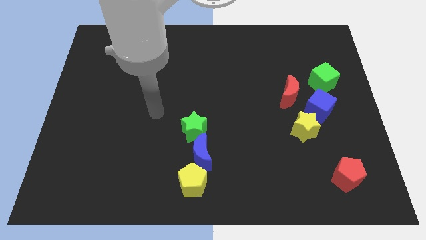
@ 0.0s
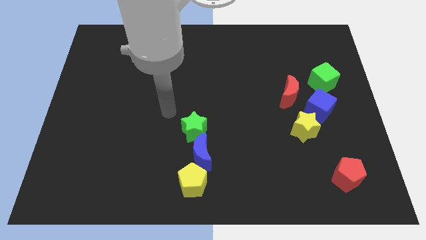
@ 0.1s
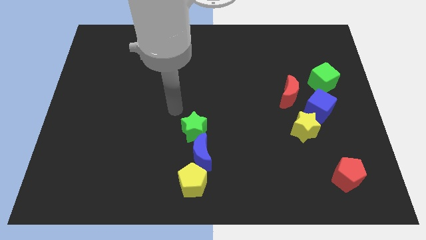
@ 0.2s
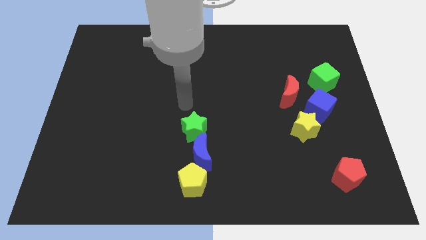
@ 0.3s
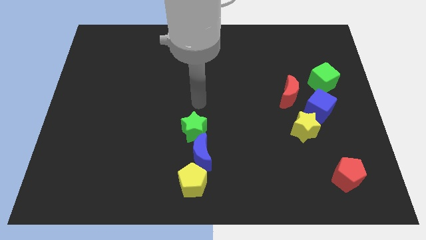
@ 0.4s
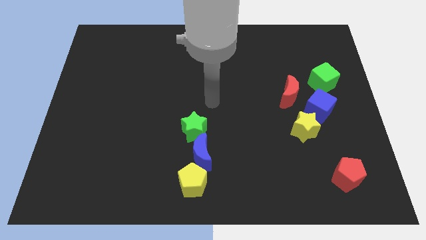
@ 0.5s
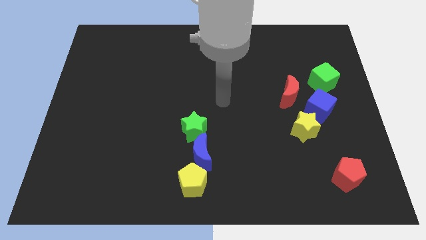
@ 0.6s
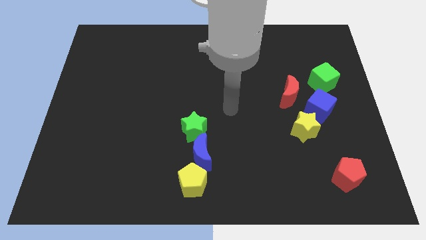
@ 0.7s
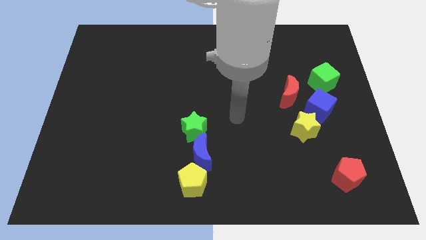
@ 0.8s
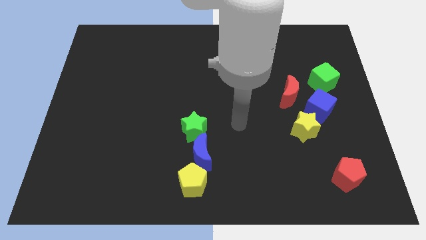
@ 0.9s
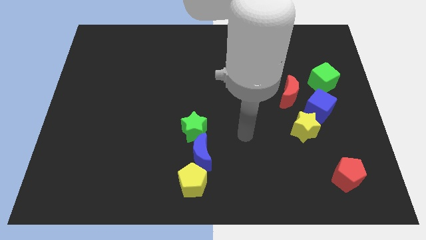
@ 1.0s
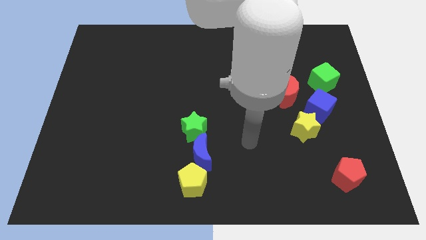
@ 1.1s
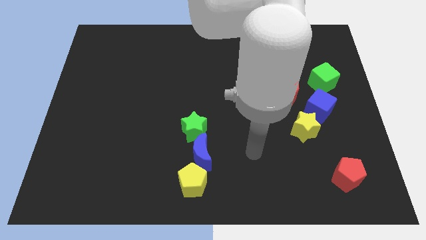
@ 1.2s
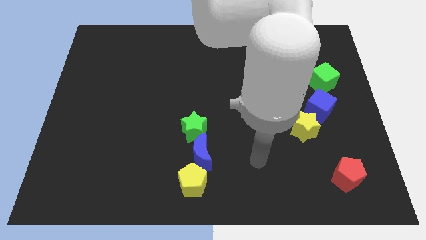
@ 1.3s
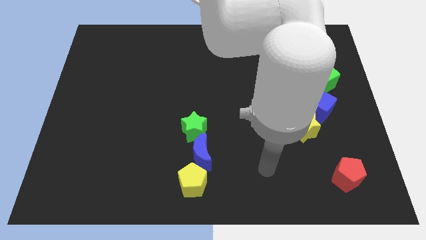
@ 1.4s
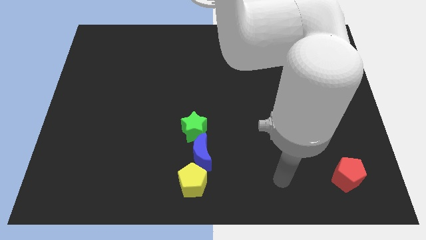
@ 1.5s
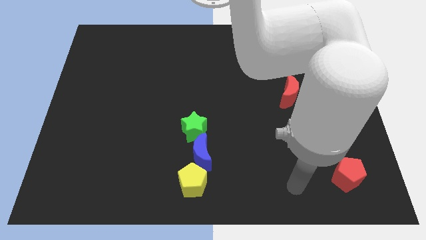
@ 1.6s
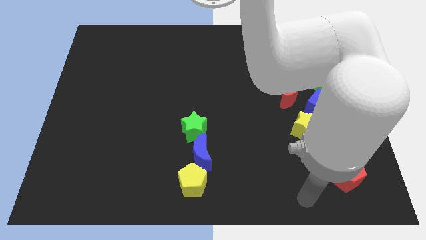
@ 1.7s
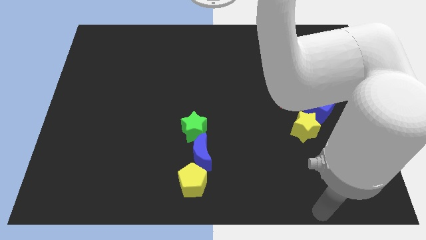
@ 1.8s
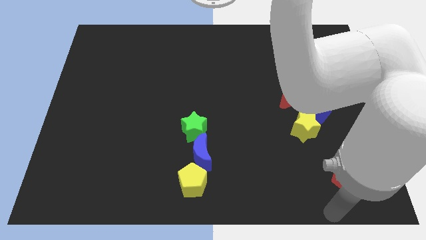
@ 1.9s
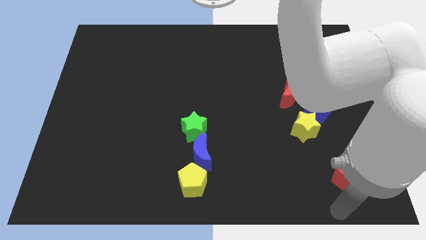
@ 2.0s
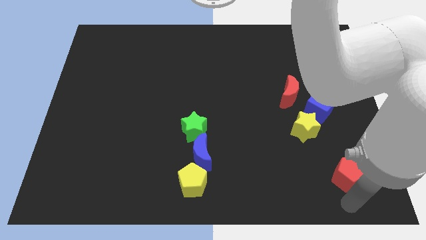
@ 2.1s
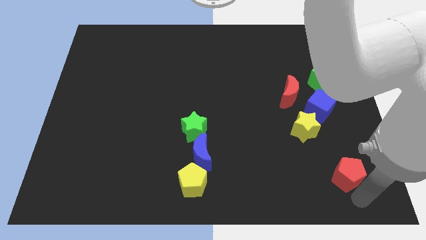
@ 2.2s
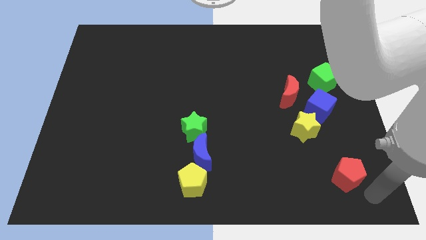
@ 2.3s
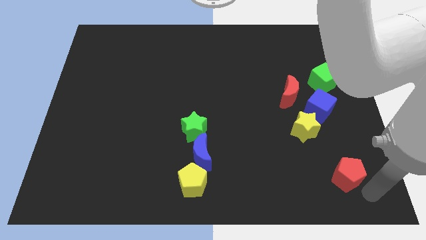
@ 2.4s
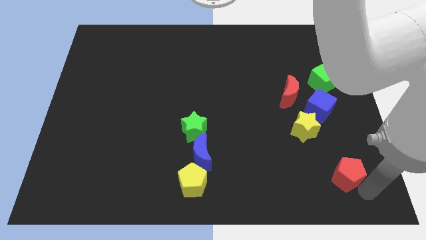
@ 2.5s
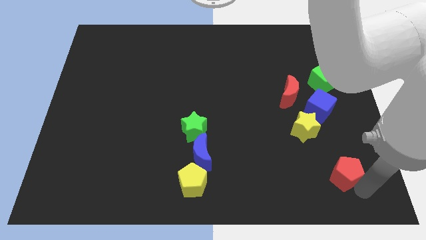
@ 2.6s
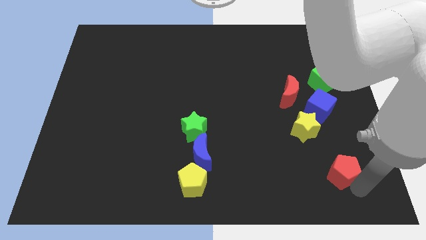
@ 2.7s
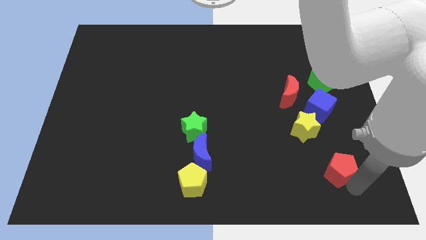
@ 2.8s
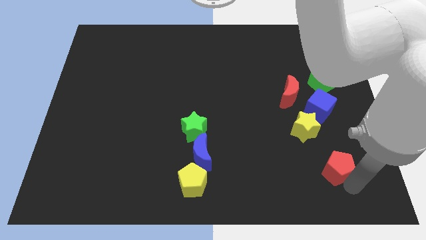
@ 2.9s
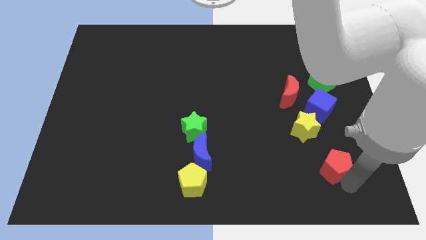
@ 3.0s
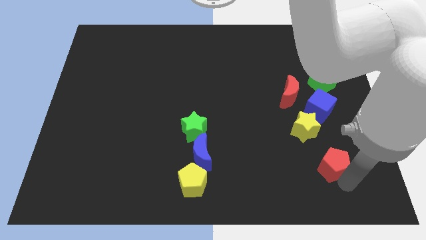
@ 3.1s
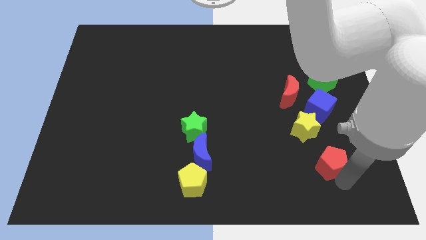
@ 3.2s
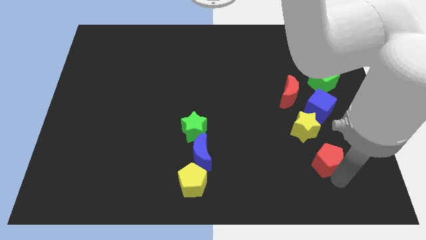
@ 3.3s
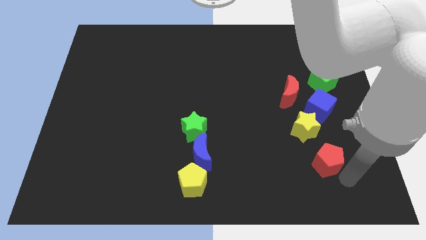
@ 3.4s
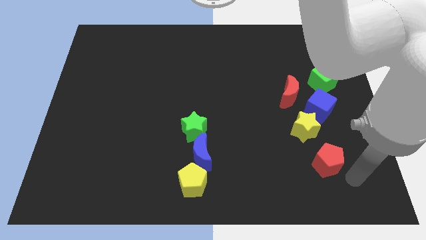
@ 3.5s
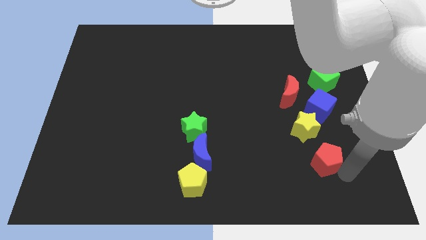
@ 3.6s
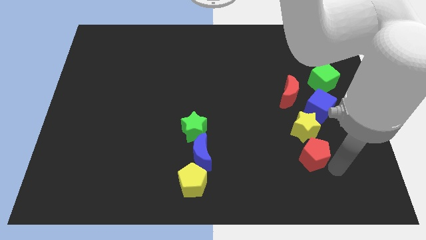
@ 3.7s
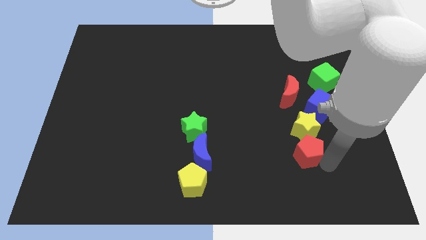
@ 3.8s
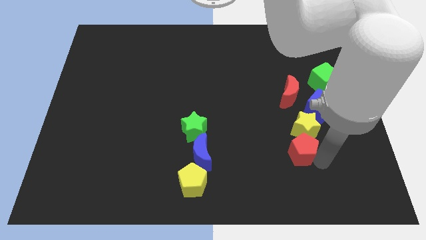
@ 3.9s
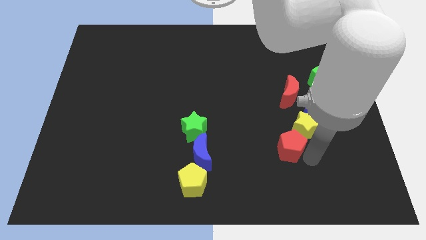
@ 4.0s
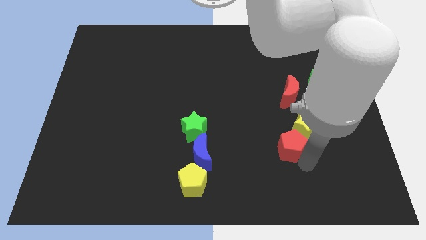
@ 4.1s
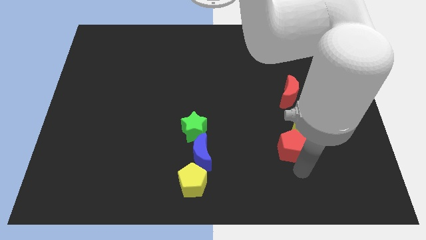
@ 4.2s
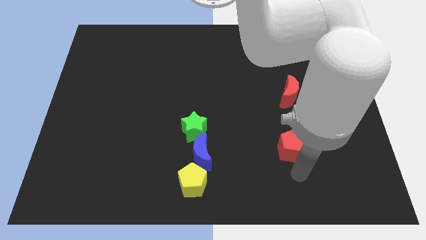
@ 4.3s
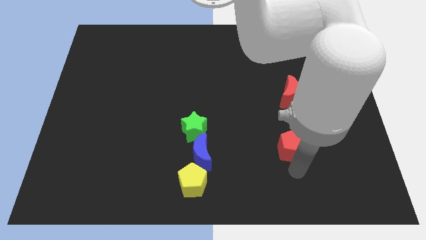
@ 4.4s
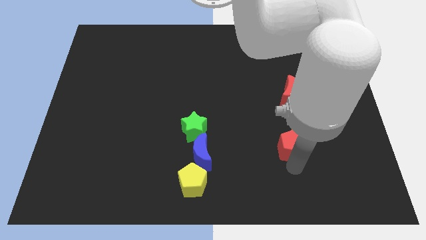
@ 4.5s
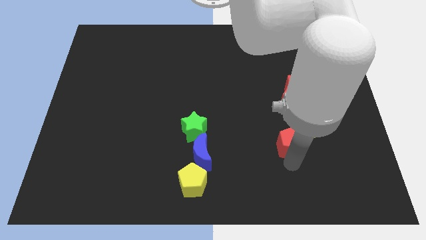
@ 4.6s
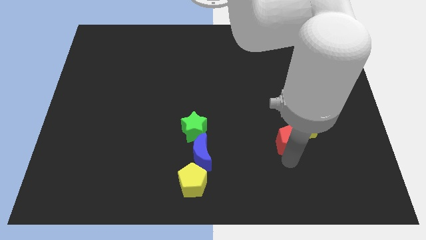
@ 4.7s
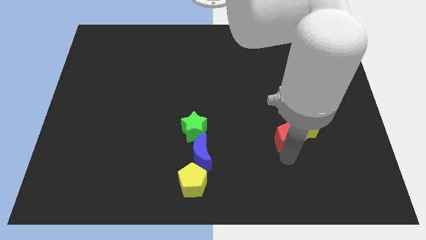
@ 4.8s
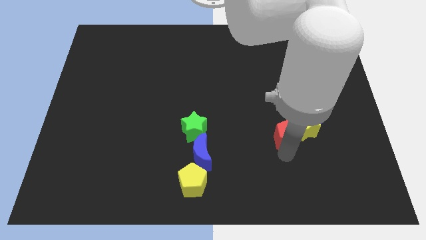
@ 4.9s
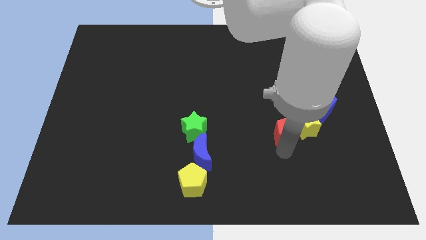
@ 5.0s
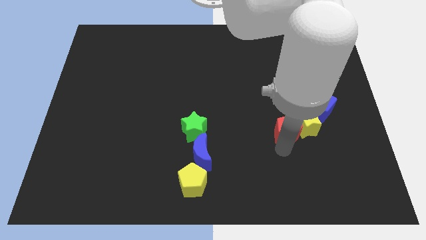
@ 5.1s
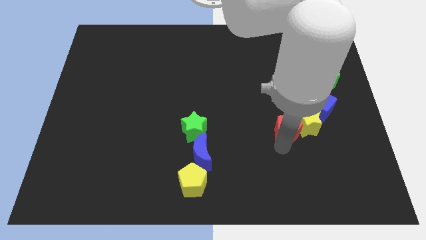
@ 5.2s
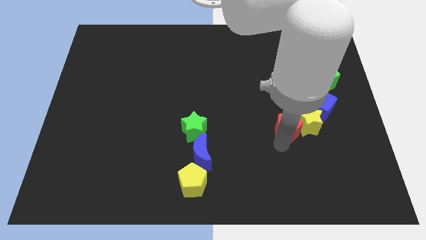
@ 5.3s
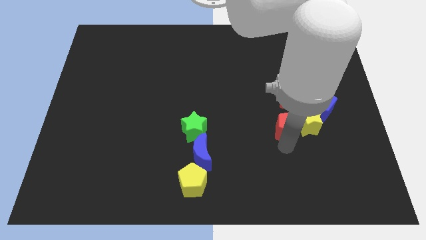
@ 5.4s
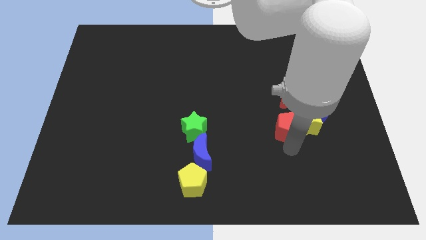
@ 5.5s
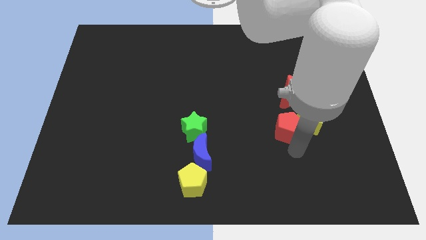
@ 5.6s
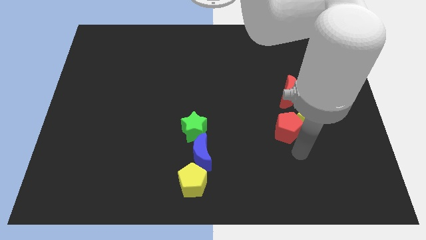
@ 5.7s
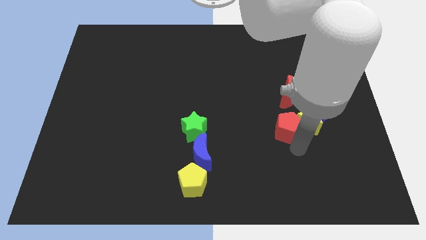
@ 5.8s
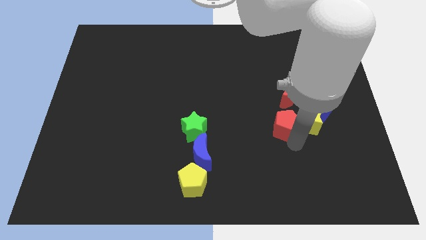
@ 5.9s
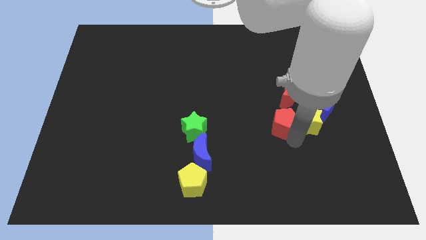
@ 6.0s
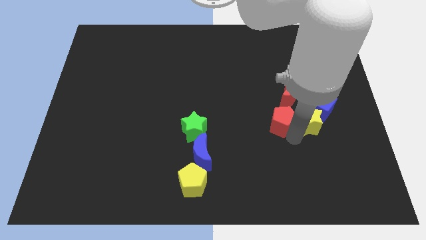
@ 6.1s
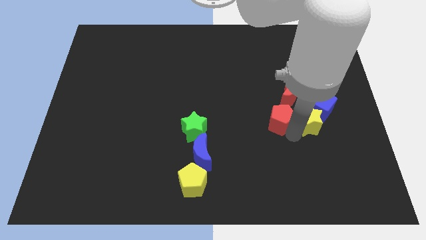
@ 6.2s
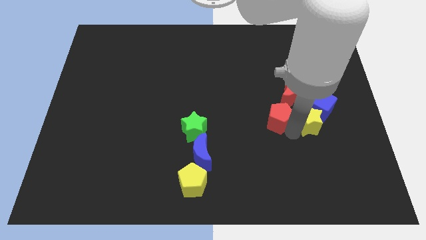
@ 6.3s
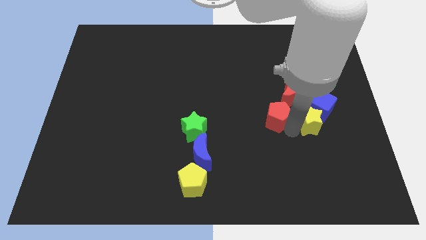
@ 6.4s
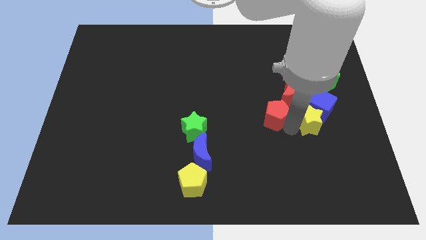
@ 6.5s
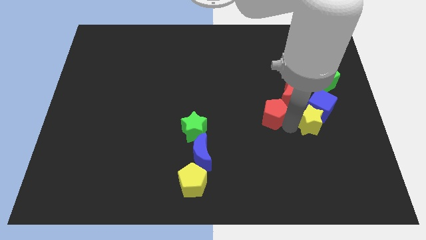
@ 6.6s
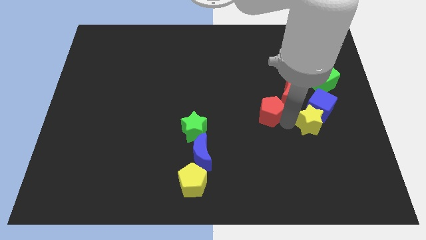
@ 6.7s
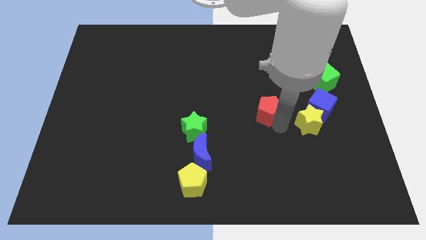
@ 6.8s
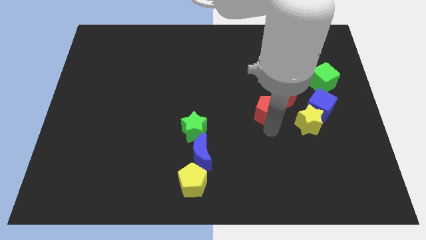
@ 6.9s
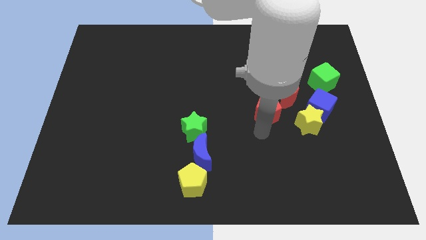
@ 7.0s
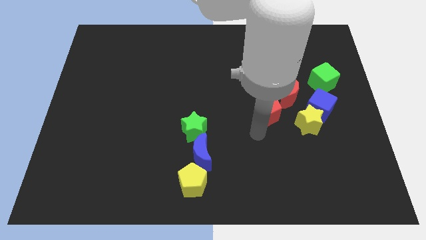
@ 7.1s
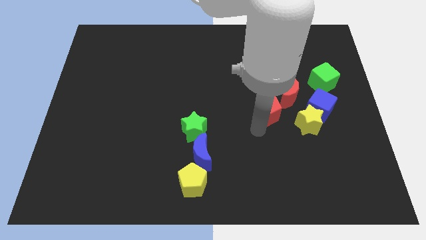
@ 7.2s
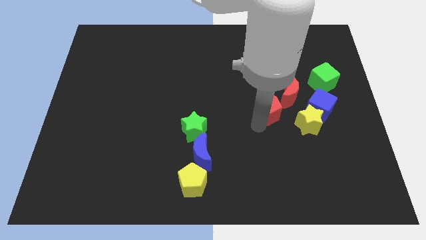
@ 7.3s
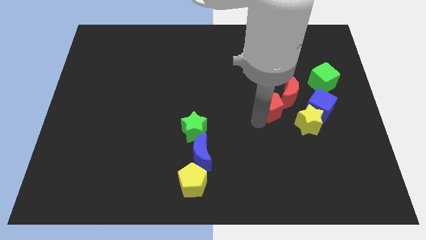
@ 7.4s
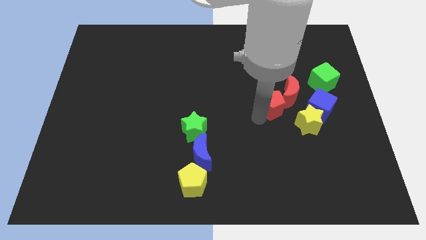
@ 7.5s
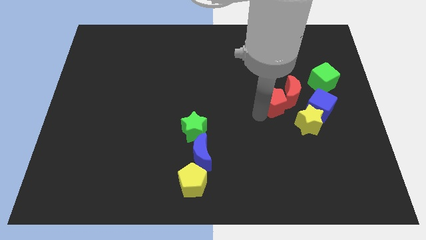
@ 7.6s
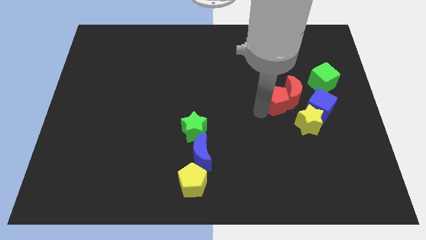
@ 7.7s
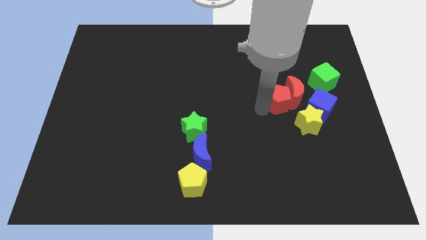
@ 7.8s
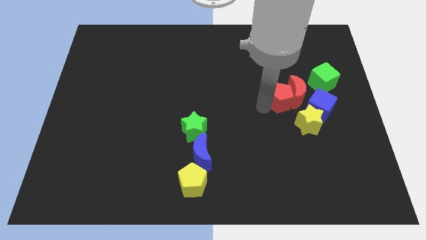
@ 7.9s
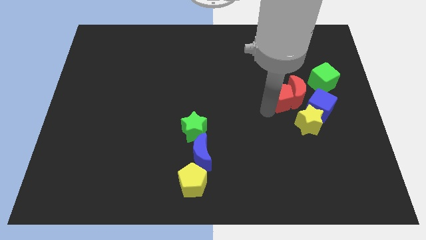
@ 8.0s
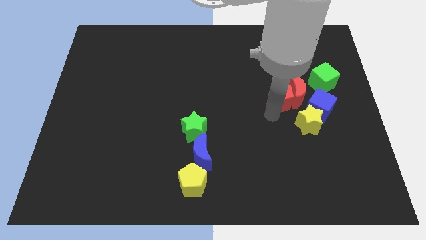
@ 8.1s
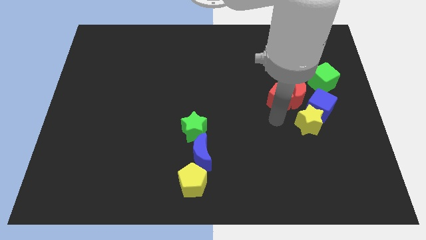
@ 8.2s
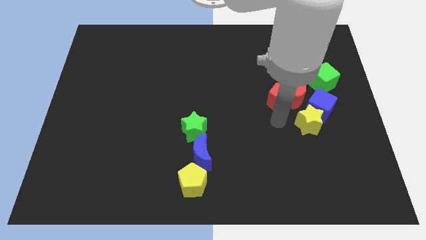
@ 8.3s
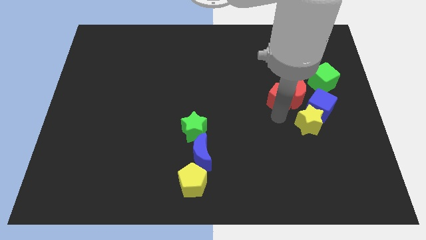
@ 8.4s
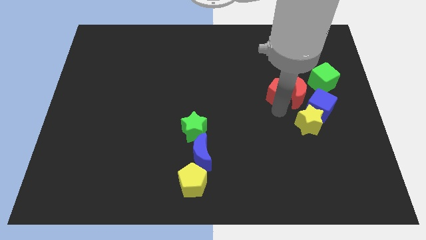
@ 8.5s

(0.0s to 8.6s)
move the red pentagon to the left side of the green cube
